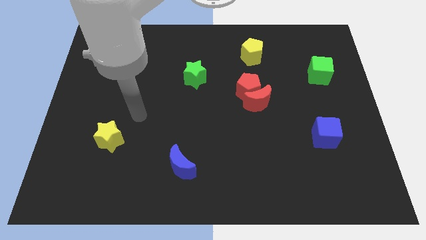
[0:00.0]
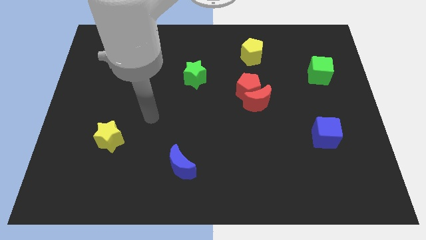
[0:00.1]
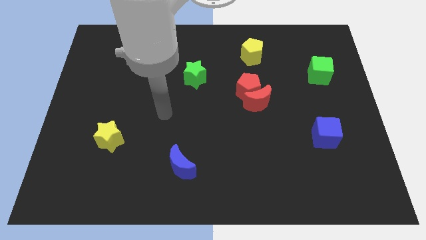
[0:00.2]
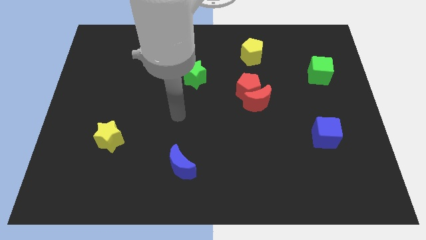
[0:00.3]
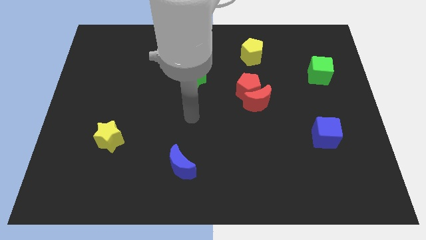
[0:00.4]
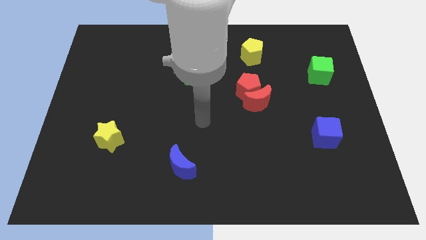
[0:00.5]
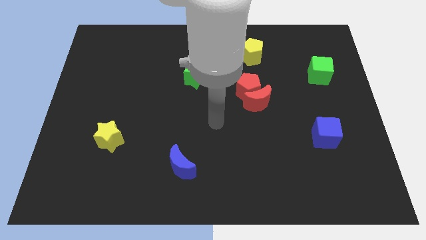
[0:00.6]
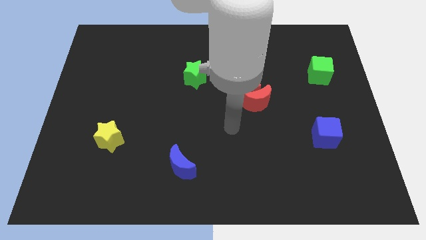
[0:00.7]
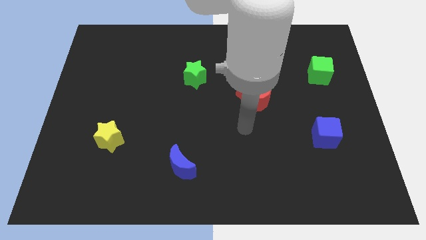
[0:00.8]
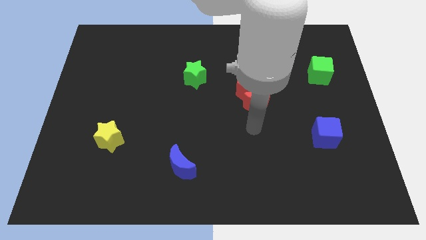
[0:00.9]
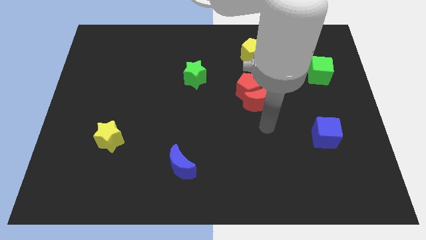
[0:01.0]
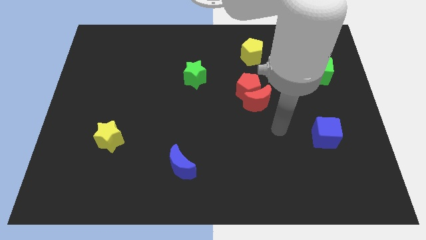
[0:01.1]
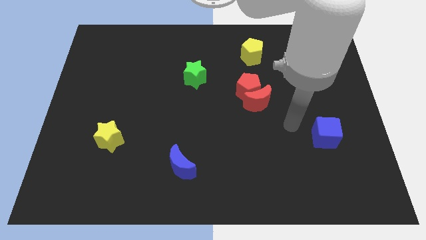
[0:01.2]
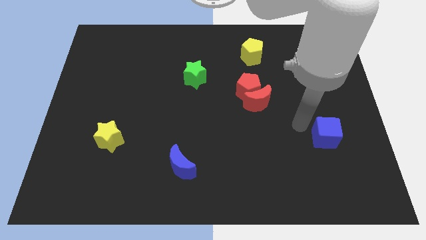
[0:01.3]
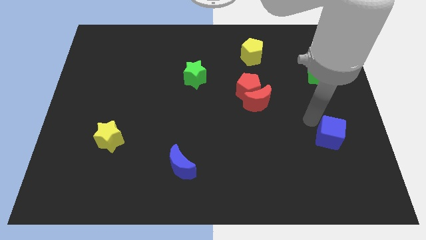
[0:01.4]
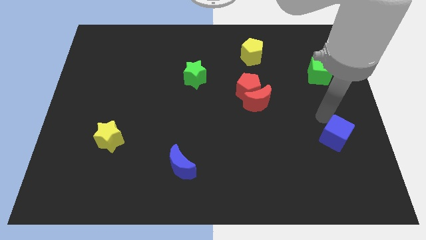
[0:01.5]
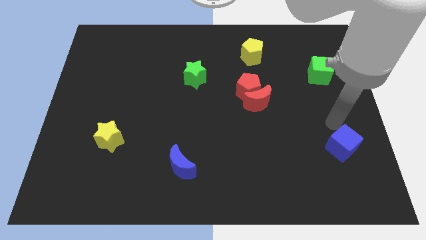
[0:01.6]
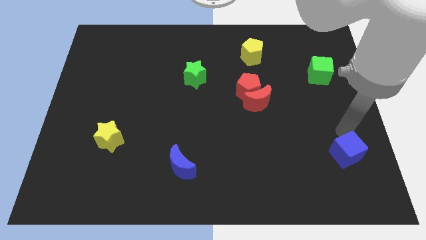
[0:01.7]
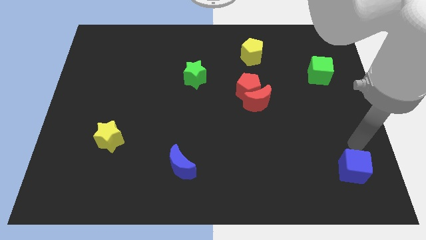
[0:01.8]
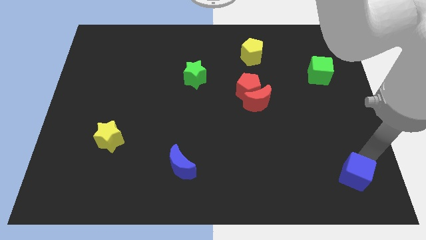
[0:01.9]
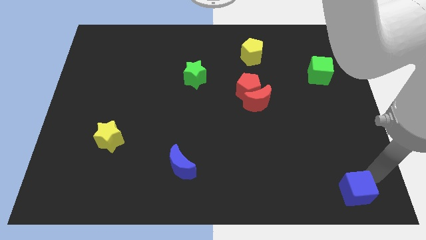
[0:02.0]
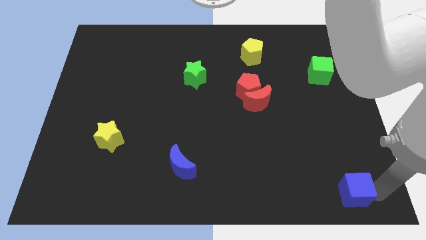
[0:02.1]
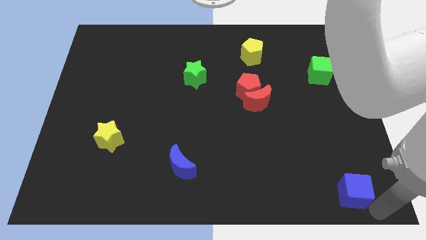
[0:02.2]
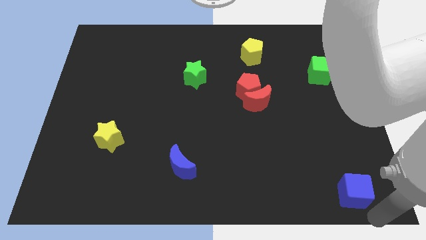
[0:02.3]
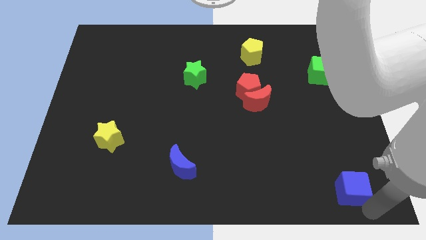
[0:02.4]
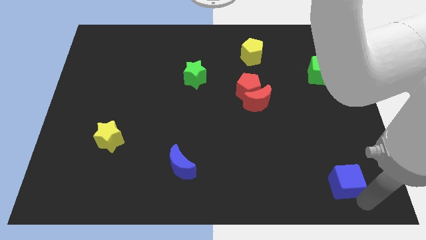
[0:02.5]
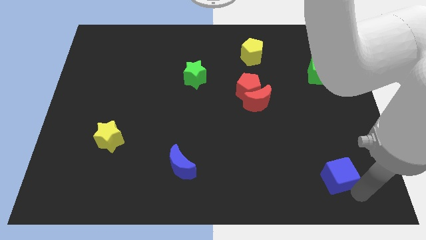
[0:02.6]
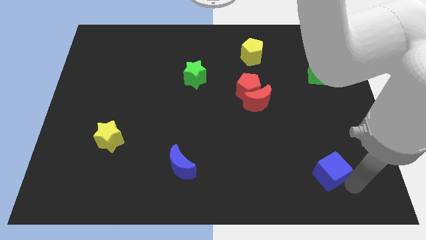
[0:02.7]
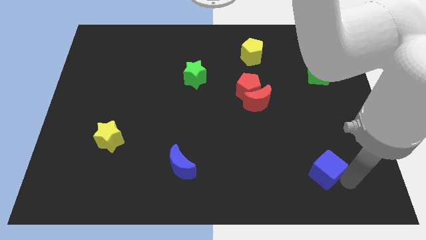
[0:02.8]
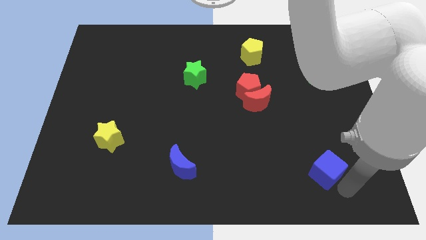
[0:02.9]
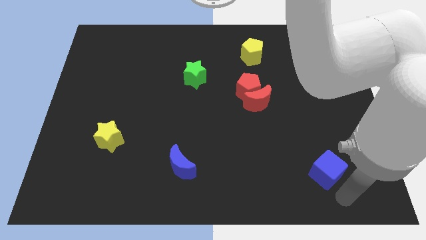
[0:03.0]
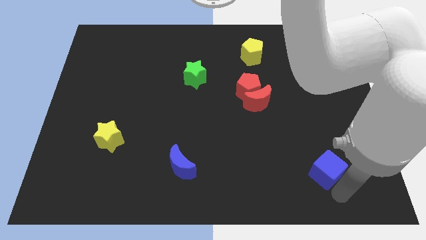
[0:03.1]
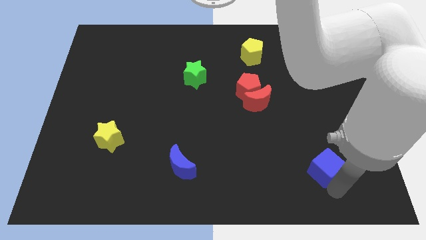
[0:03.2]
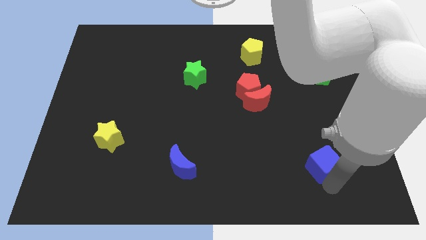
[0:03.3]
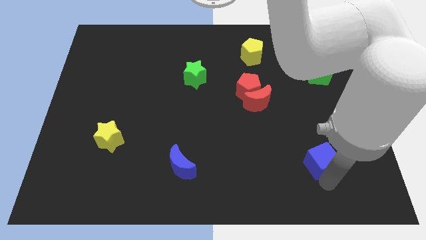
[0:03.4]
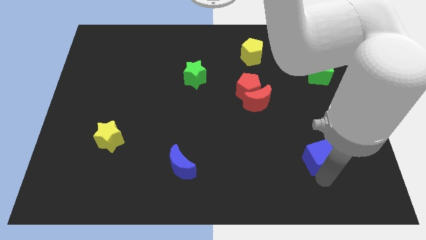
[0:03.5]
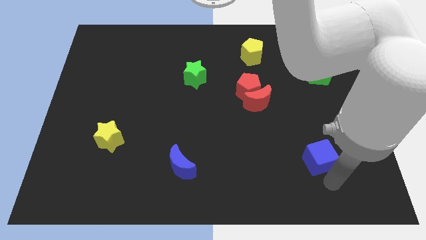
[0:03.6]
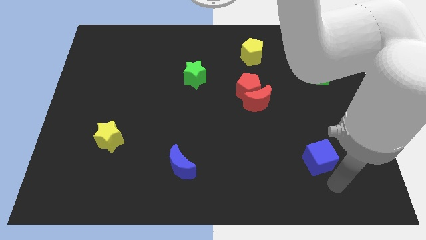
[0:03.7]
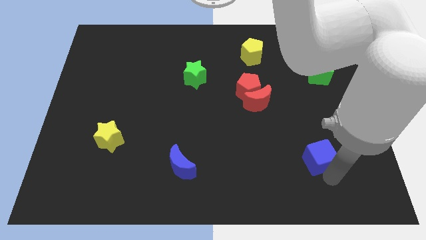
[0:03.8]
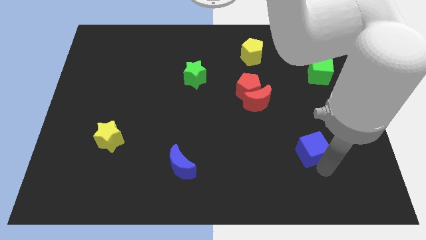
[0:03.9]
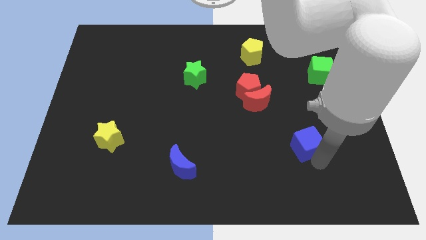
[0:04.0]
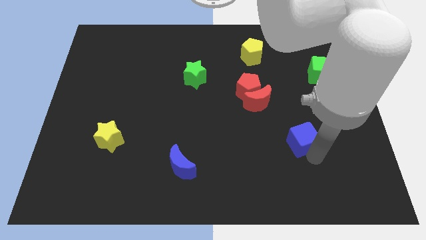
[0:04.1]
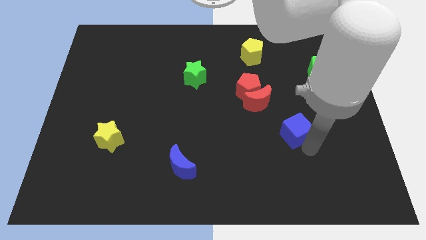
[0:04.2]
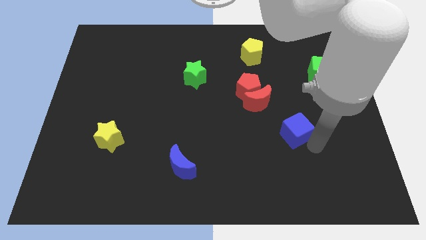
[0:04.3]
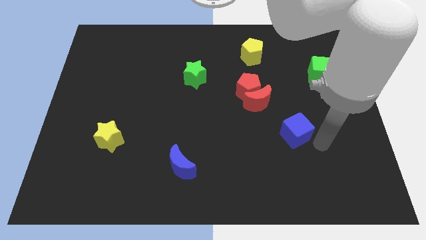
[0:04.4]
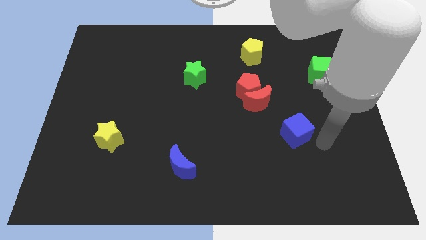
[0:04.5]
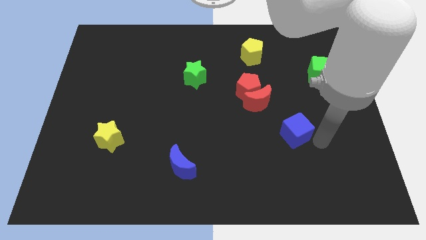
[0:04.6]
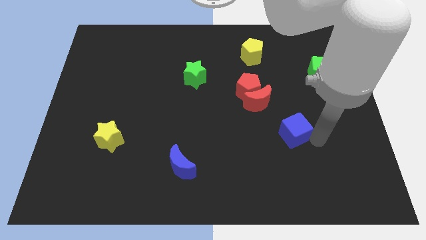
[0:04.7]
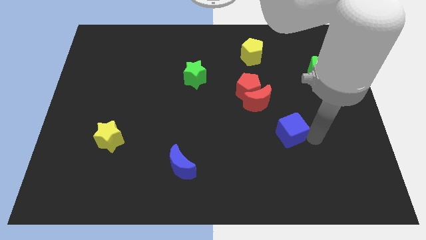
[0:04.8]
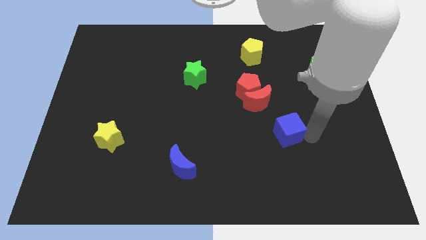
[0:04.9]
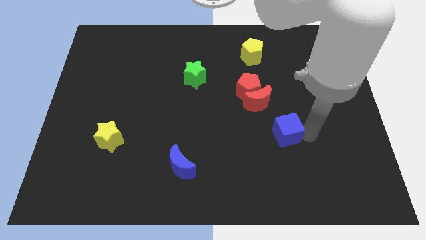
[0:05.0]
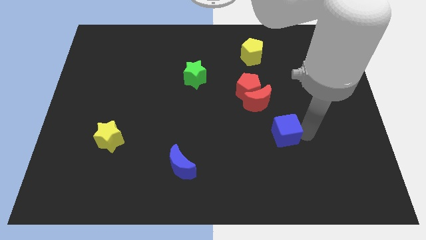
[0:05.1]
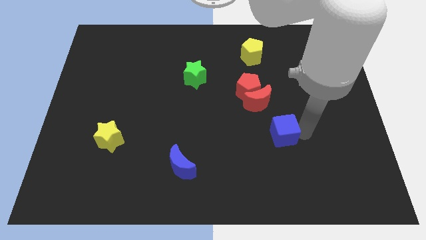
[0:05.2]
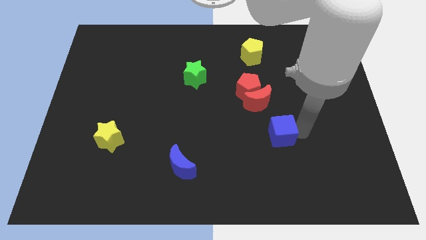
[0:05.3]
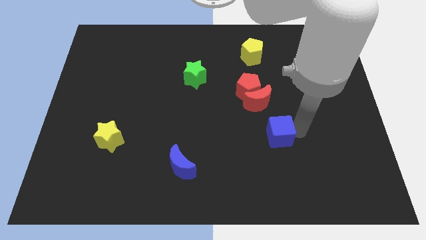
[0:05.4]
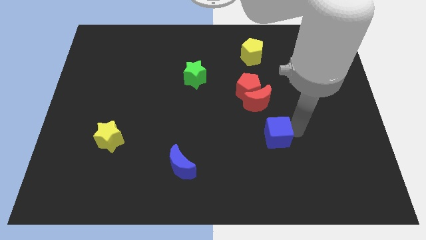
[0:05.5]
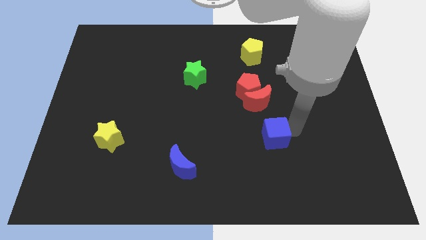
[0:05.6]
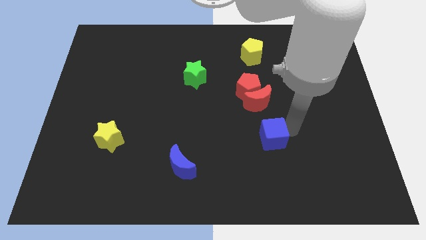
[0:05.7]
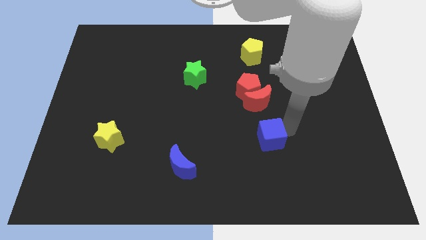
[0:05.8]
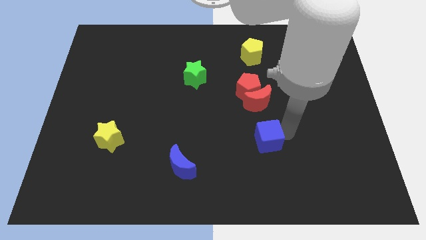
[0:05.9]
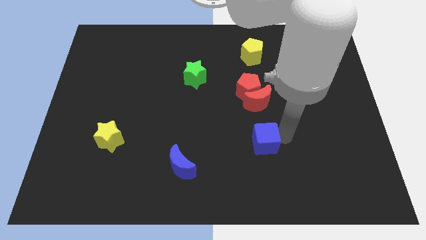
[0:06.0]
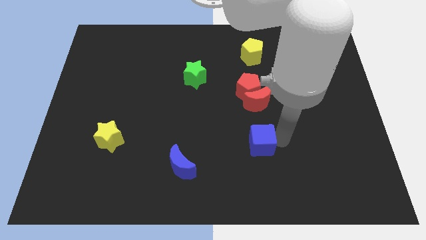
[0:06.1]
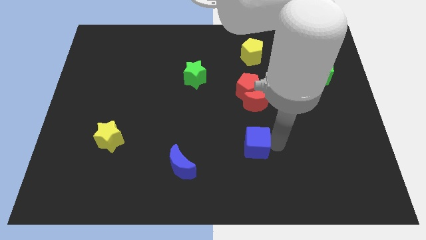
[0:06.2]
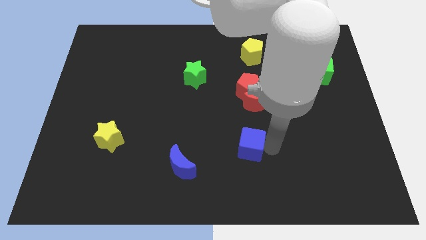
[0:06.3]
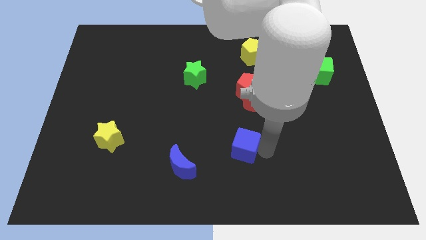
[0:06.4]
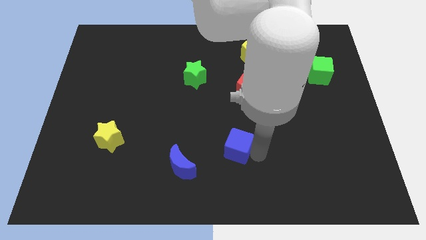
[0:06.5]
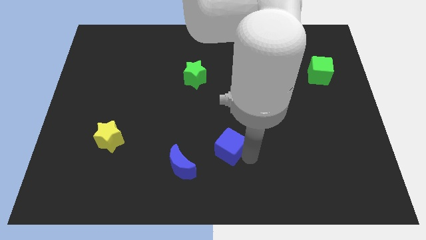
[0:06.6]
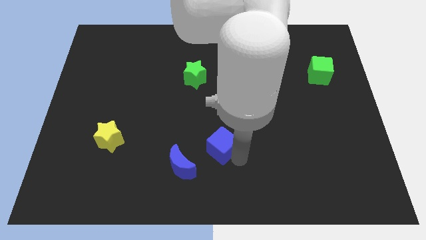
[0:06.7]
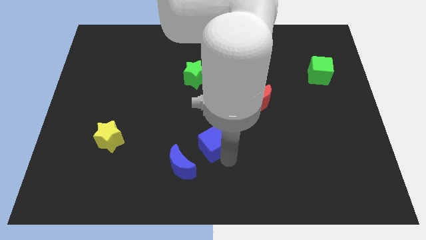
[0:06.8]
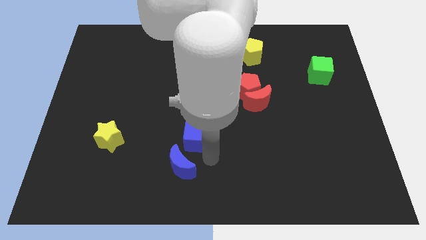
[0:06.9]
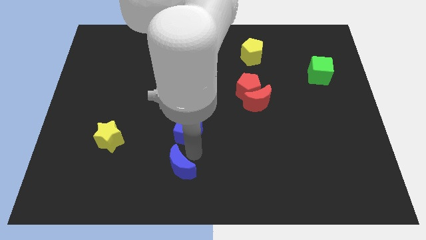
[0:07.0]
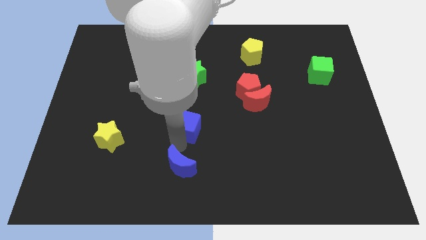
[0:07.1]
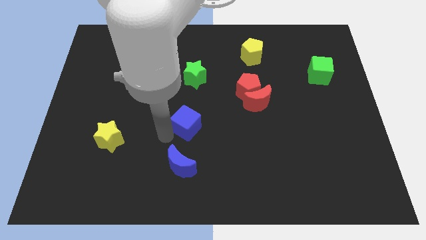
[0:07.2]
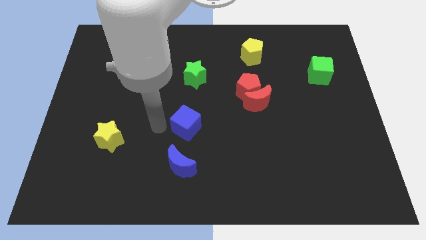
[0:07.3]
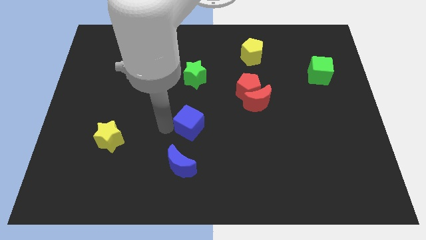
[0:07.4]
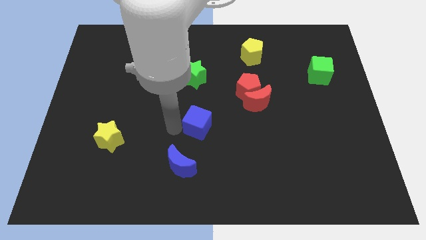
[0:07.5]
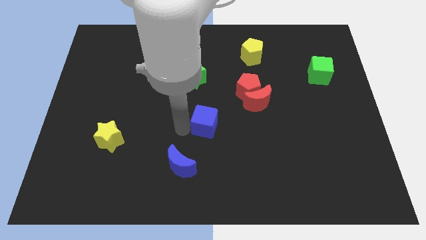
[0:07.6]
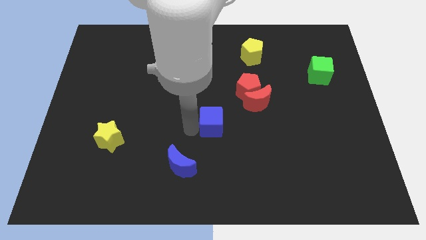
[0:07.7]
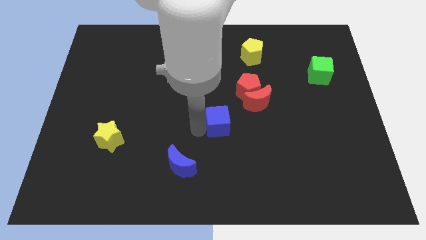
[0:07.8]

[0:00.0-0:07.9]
put the blue cube diagonally down and to the left of the red pentagon

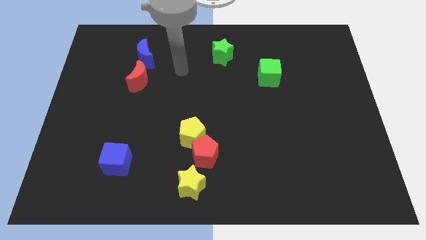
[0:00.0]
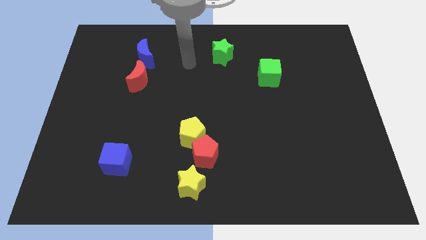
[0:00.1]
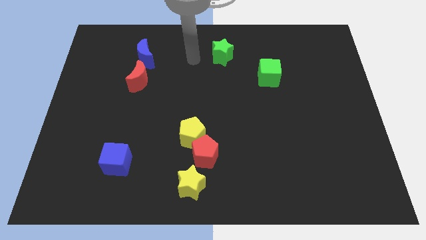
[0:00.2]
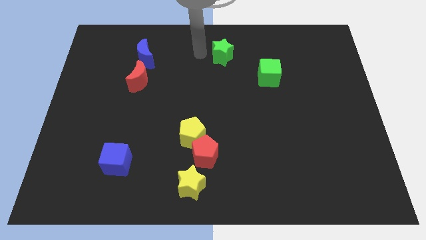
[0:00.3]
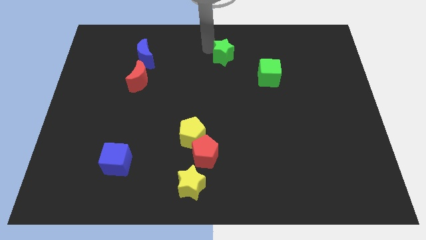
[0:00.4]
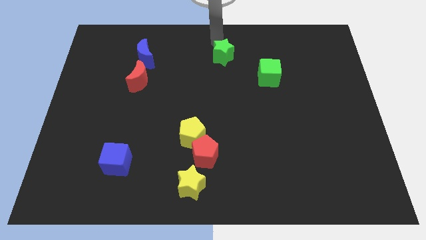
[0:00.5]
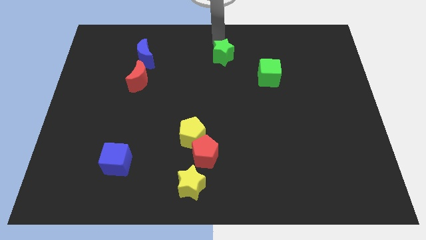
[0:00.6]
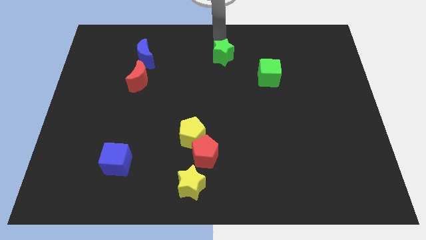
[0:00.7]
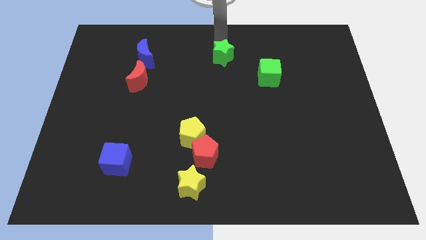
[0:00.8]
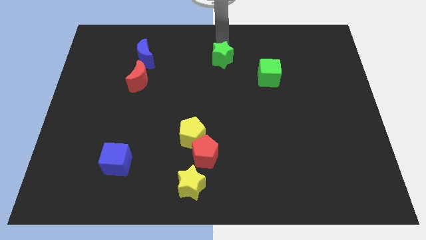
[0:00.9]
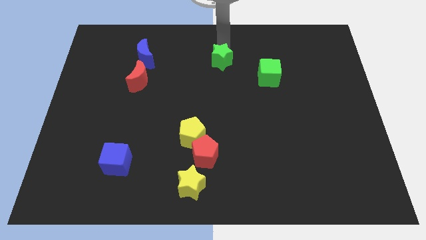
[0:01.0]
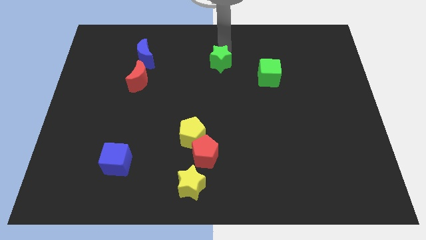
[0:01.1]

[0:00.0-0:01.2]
put the green star to the left side of the green cube
